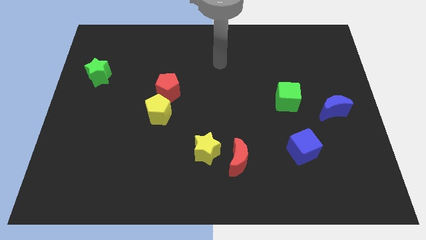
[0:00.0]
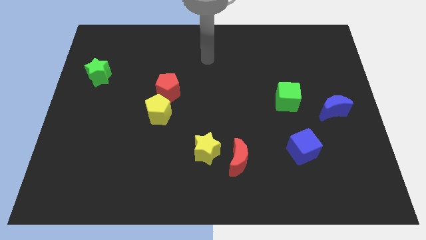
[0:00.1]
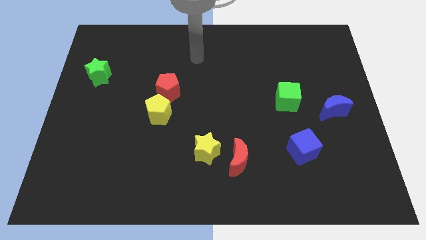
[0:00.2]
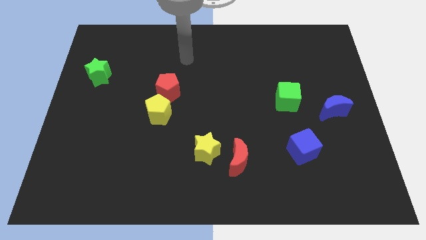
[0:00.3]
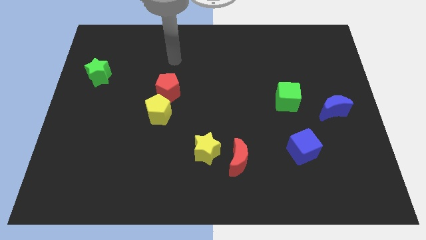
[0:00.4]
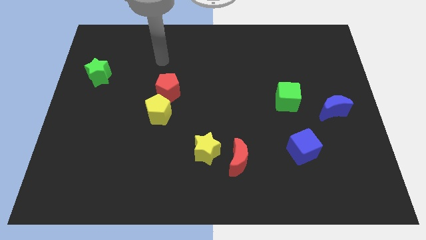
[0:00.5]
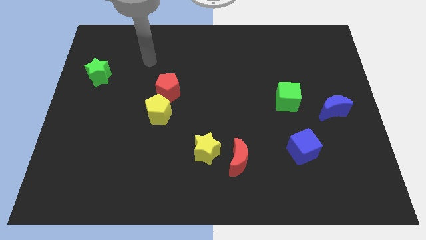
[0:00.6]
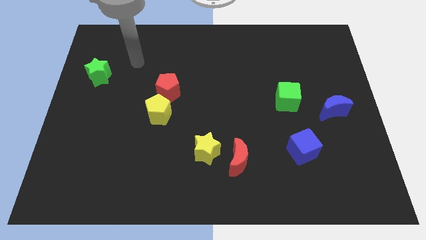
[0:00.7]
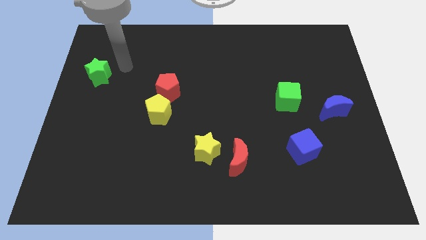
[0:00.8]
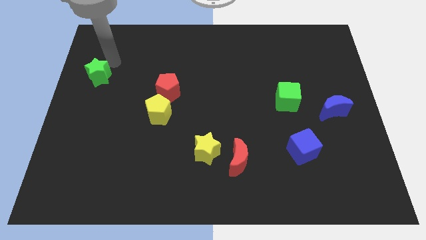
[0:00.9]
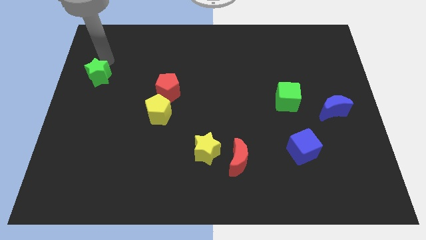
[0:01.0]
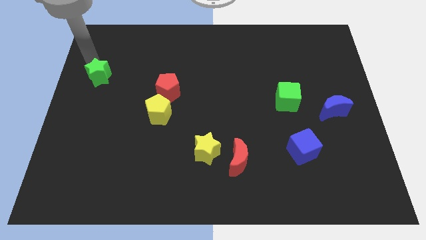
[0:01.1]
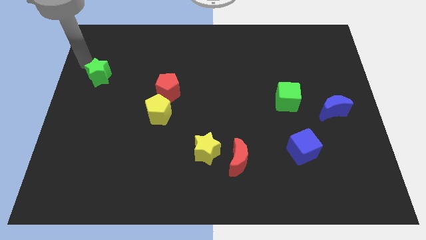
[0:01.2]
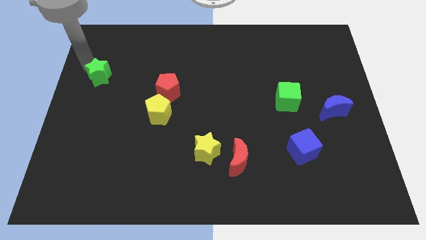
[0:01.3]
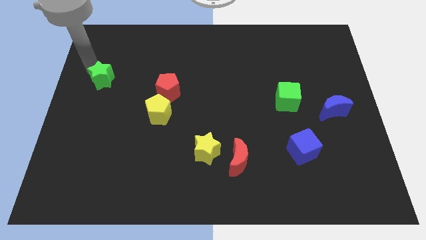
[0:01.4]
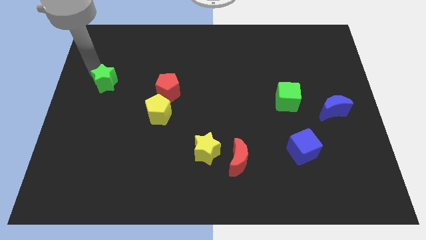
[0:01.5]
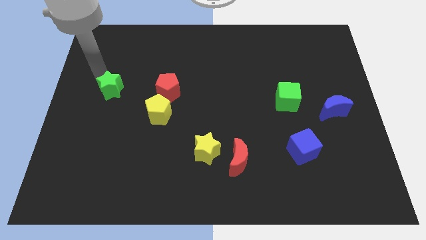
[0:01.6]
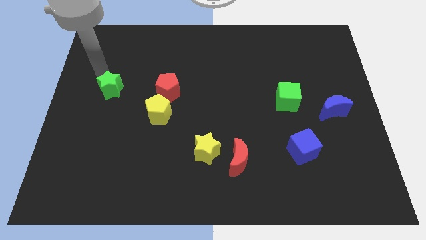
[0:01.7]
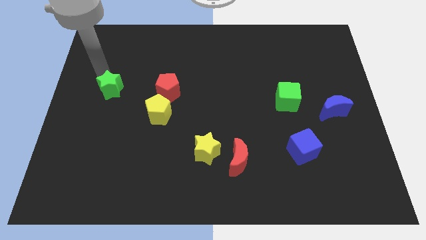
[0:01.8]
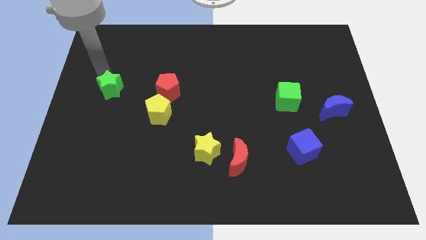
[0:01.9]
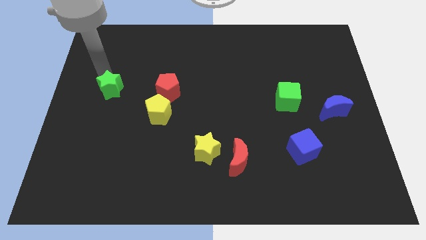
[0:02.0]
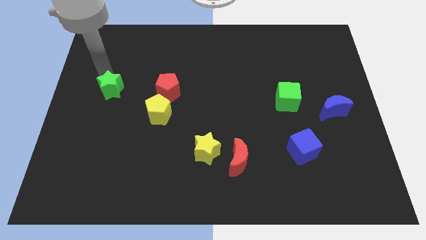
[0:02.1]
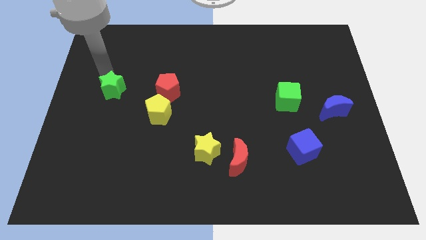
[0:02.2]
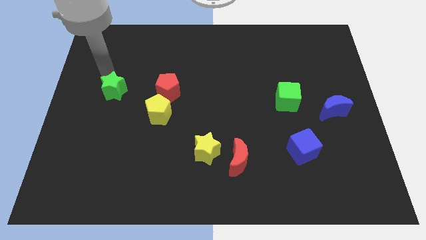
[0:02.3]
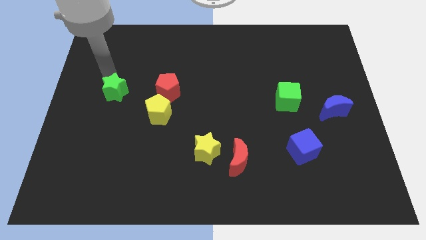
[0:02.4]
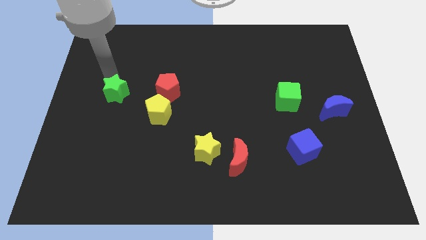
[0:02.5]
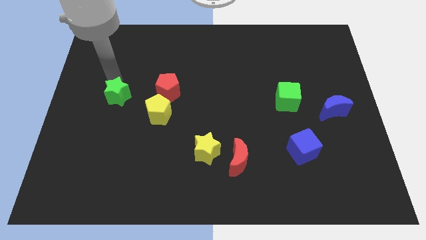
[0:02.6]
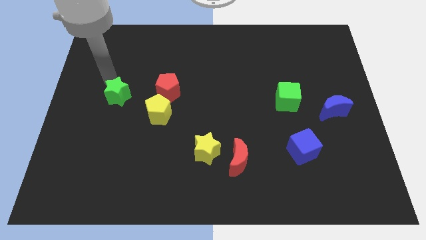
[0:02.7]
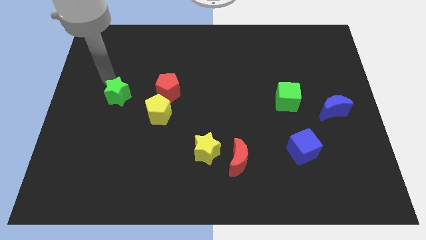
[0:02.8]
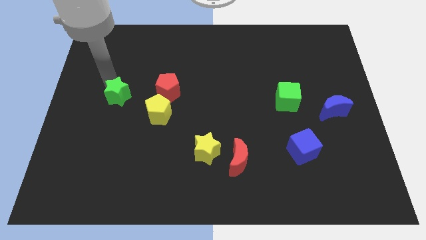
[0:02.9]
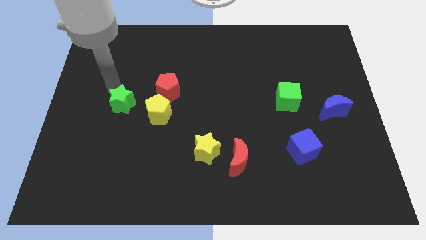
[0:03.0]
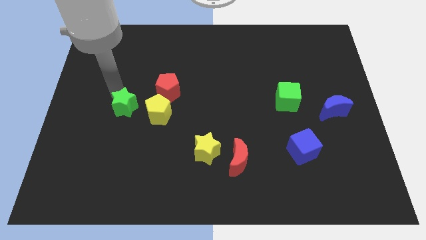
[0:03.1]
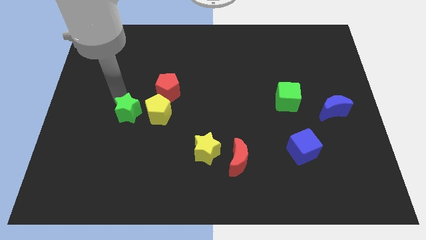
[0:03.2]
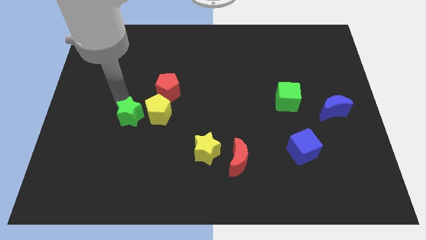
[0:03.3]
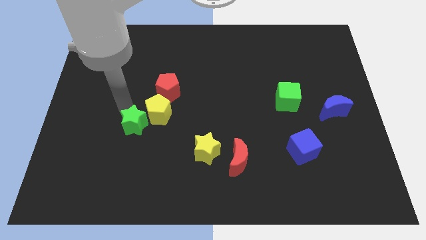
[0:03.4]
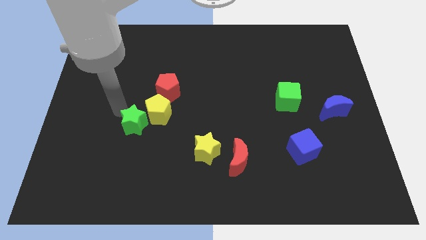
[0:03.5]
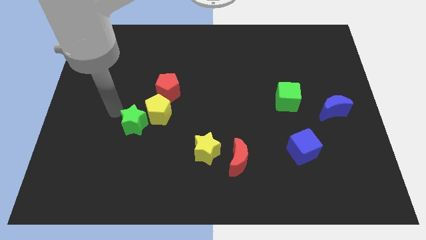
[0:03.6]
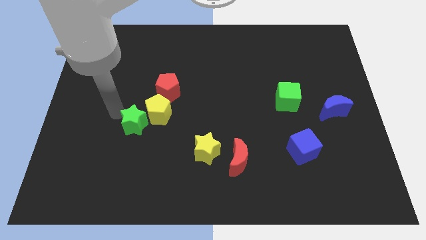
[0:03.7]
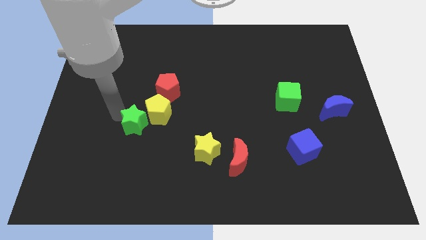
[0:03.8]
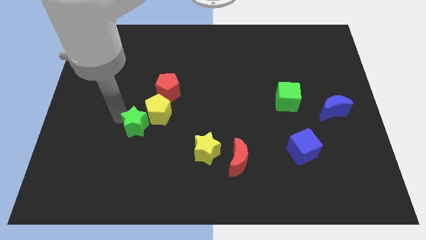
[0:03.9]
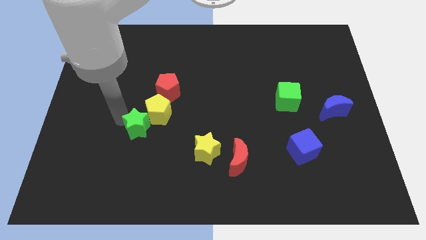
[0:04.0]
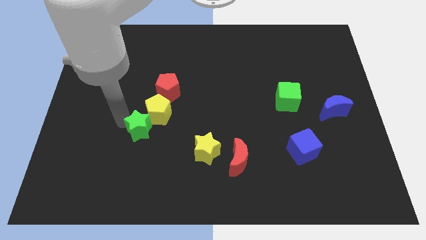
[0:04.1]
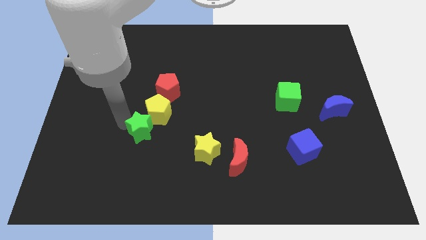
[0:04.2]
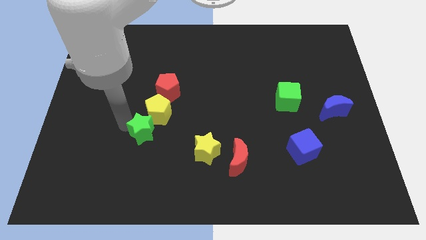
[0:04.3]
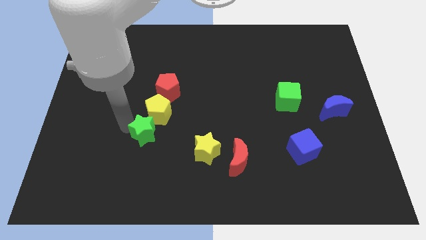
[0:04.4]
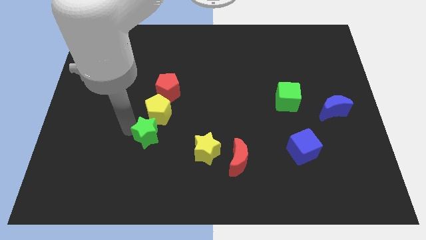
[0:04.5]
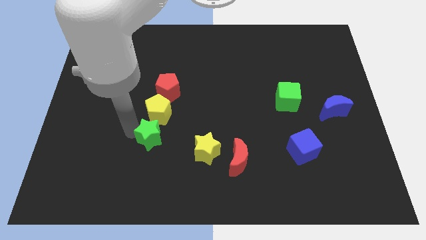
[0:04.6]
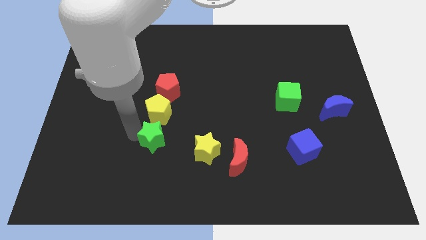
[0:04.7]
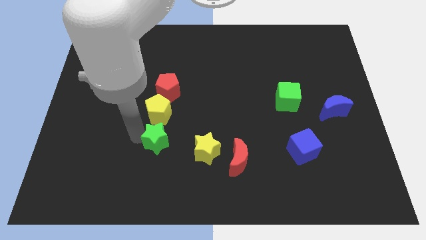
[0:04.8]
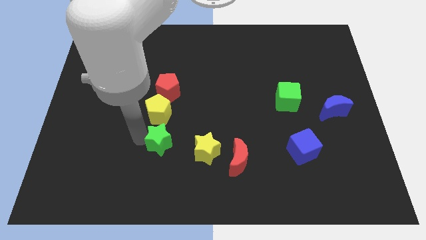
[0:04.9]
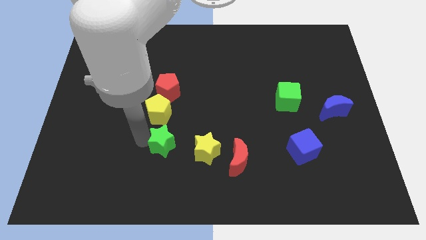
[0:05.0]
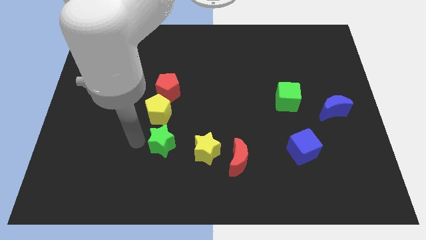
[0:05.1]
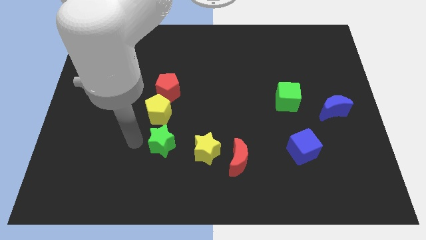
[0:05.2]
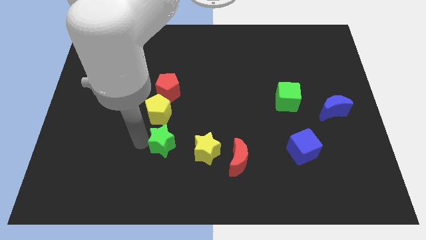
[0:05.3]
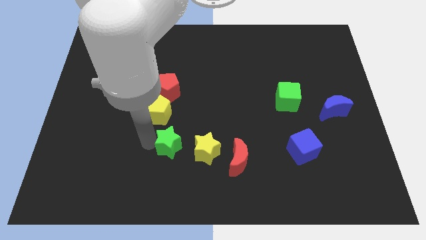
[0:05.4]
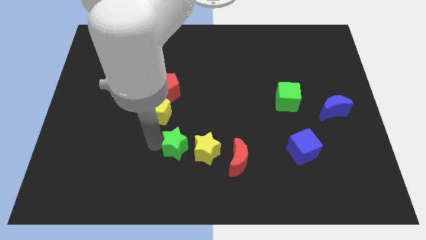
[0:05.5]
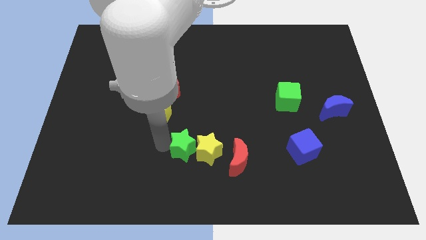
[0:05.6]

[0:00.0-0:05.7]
slide the green star next to the yellow star

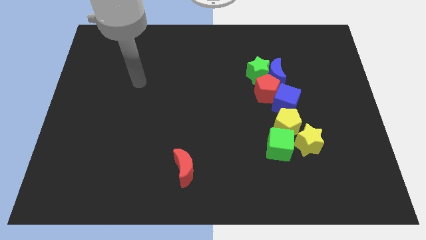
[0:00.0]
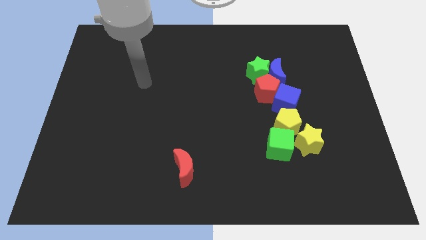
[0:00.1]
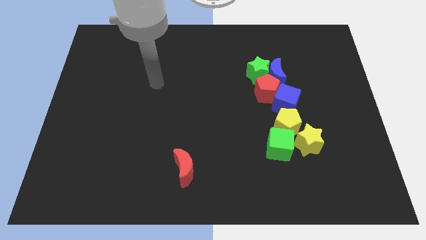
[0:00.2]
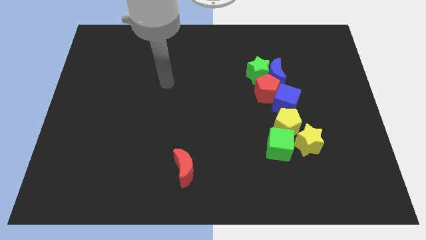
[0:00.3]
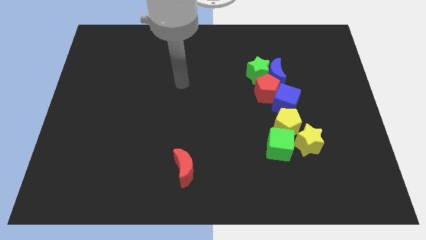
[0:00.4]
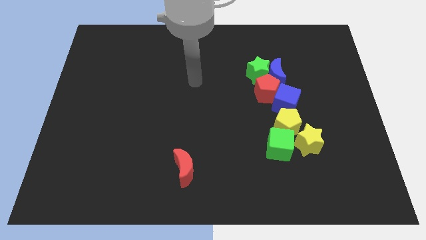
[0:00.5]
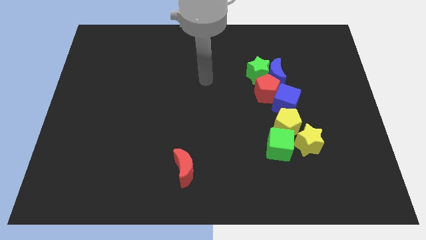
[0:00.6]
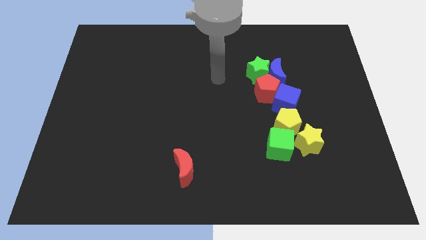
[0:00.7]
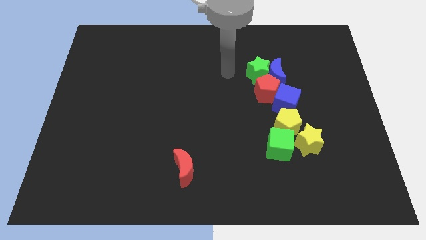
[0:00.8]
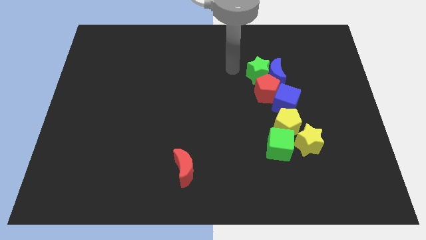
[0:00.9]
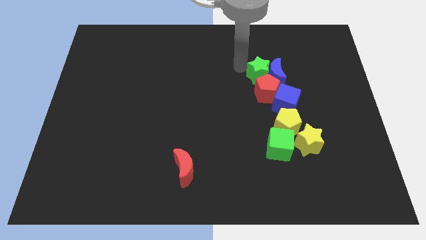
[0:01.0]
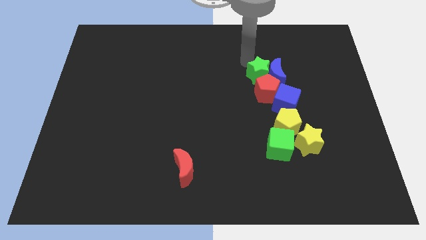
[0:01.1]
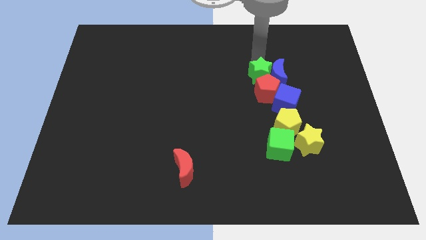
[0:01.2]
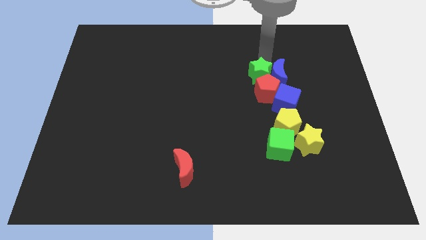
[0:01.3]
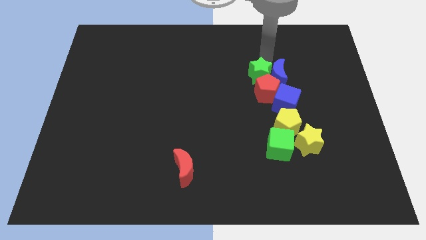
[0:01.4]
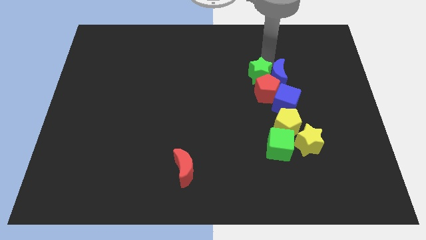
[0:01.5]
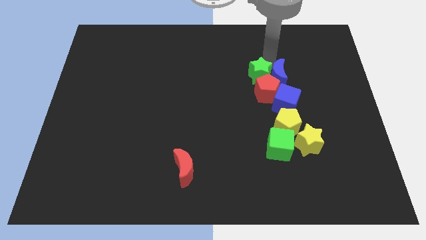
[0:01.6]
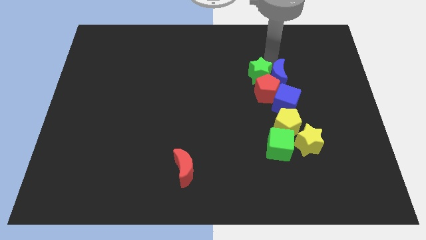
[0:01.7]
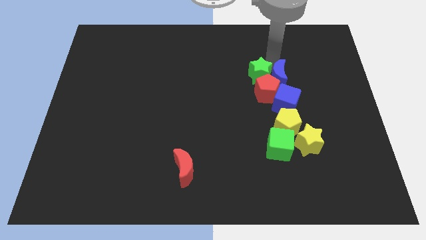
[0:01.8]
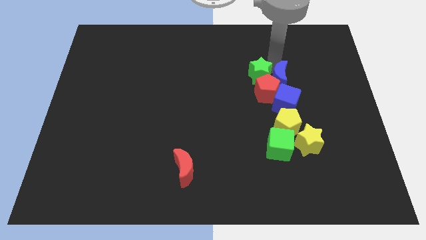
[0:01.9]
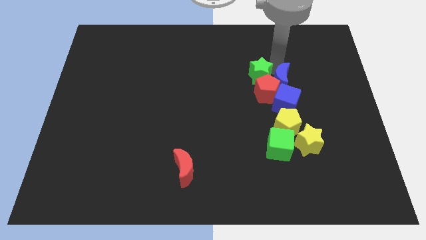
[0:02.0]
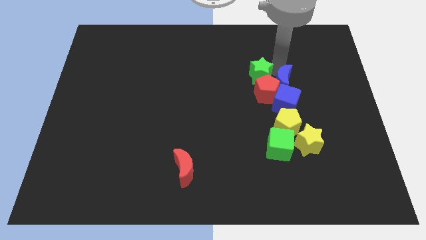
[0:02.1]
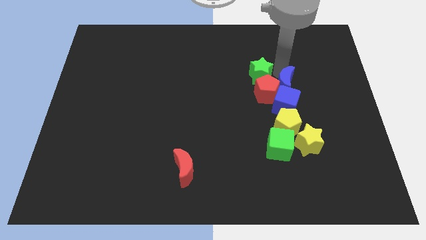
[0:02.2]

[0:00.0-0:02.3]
move the blue moon towards the blue cube
